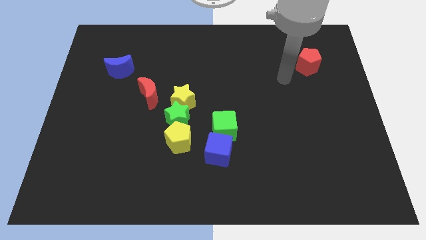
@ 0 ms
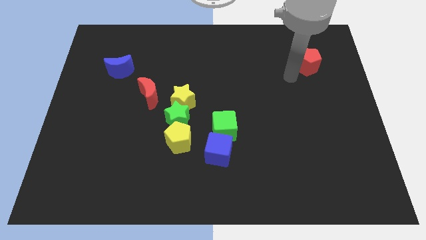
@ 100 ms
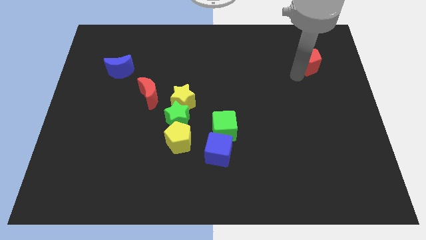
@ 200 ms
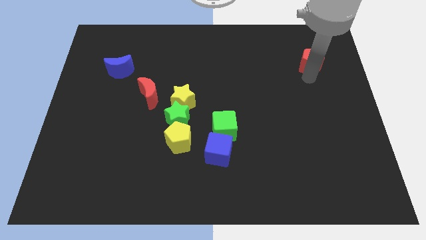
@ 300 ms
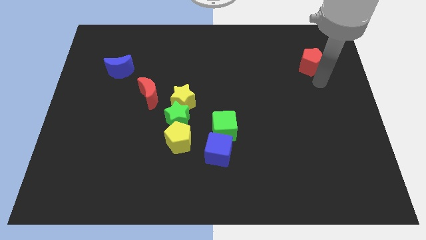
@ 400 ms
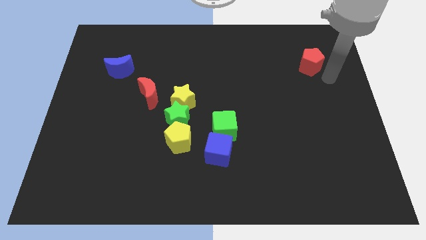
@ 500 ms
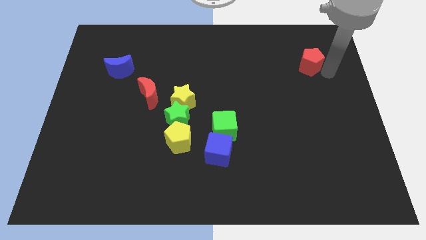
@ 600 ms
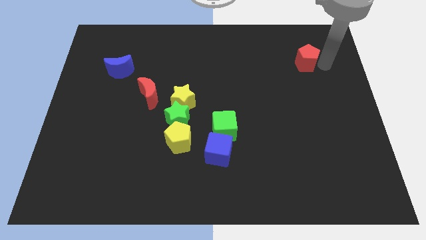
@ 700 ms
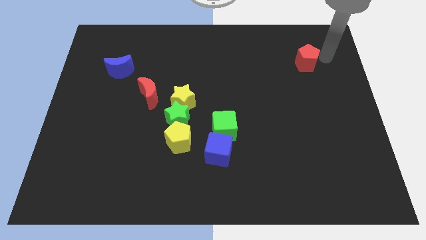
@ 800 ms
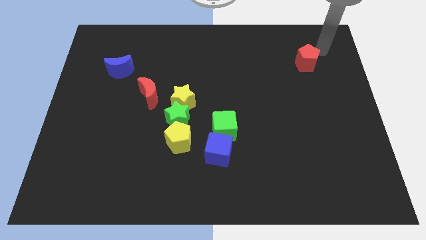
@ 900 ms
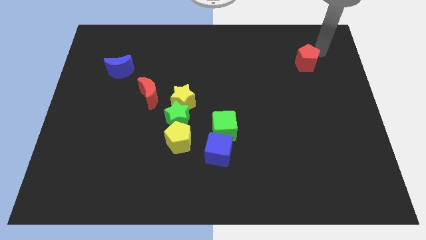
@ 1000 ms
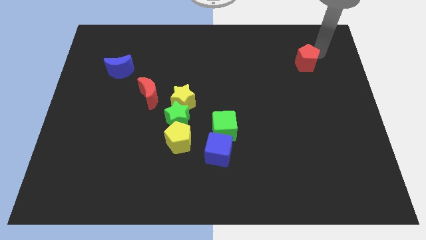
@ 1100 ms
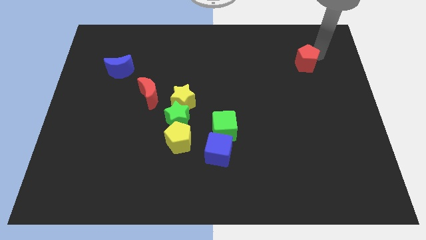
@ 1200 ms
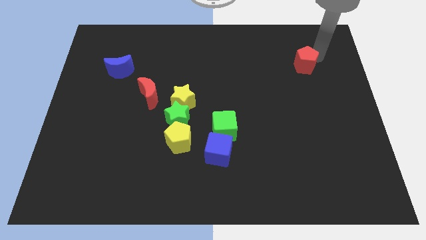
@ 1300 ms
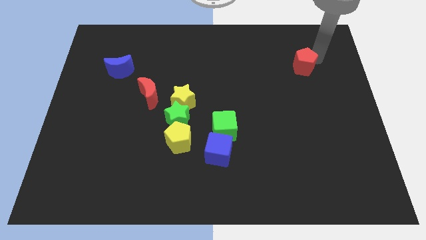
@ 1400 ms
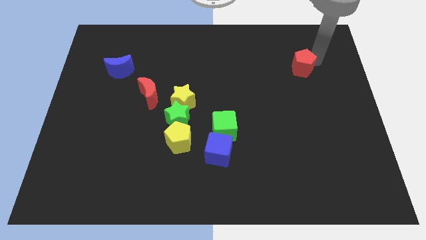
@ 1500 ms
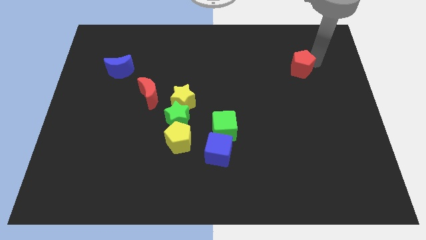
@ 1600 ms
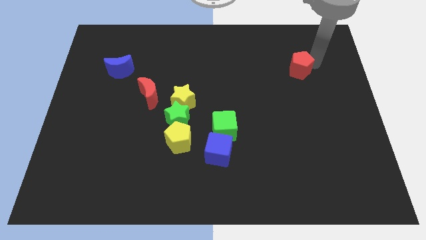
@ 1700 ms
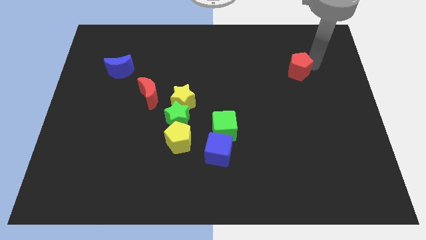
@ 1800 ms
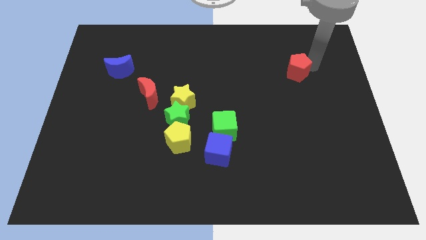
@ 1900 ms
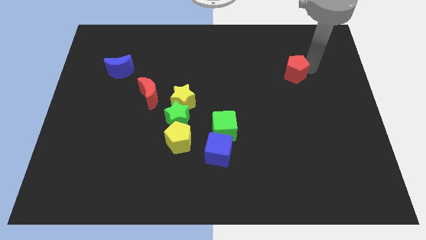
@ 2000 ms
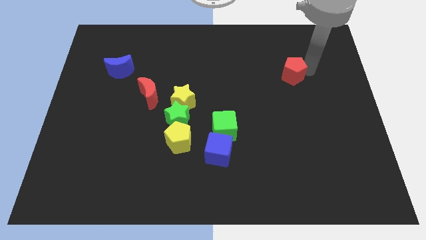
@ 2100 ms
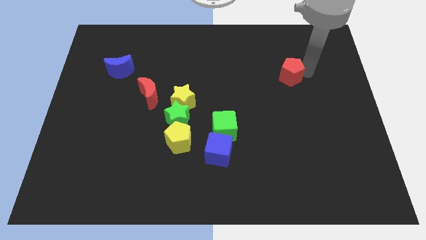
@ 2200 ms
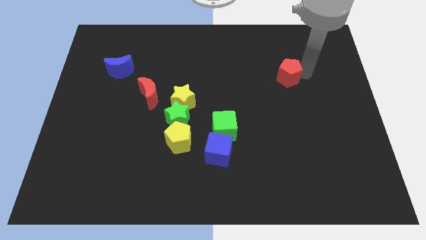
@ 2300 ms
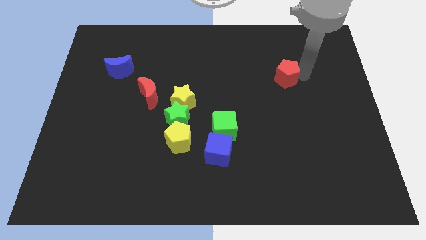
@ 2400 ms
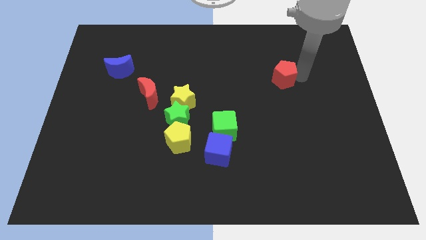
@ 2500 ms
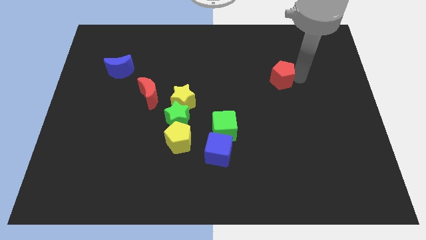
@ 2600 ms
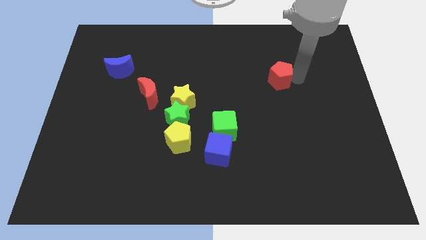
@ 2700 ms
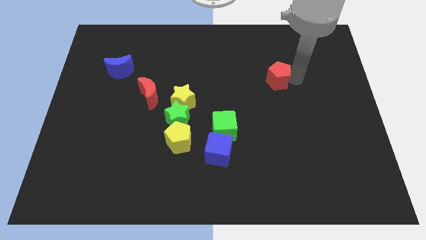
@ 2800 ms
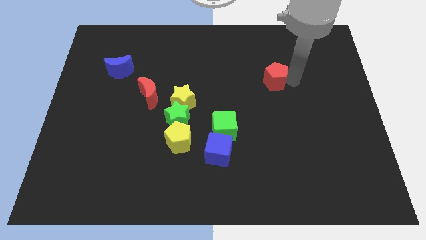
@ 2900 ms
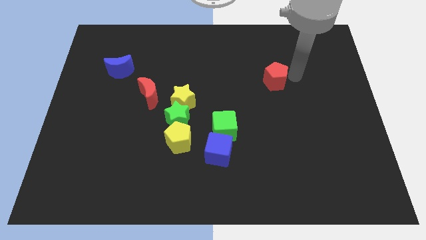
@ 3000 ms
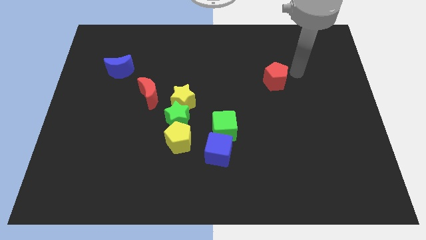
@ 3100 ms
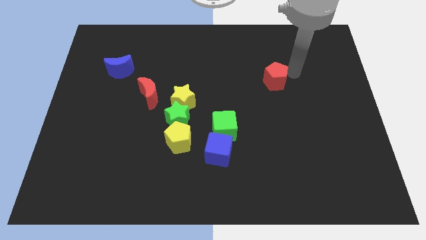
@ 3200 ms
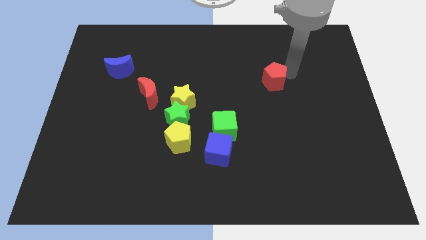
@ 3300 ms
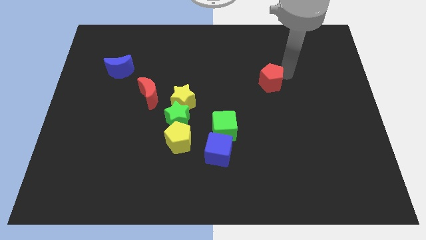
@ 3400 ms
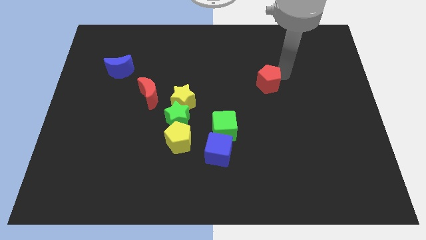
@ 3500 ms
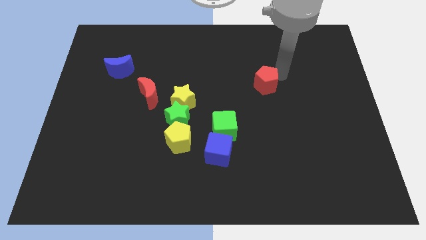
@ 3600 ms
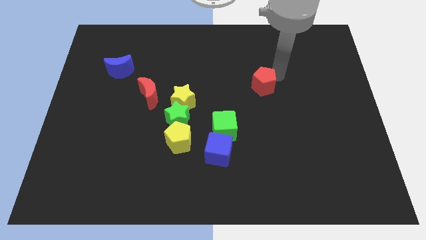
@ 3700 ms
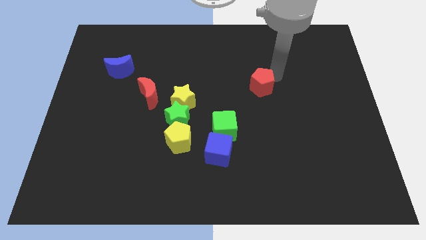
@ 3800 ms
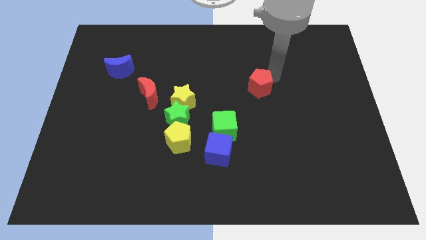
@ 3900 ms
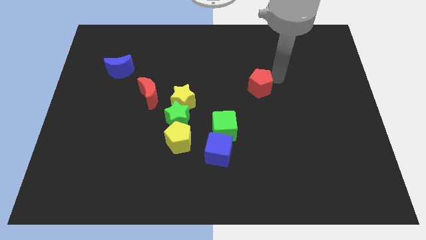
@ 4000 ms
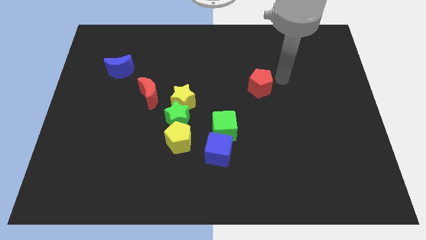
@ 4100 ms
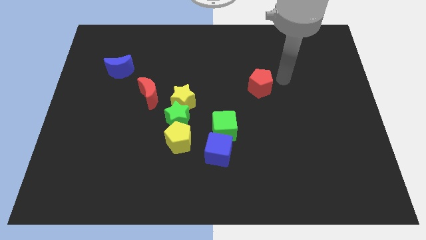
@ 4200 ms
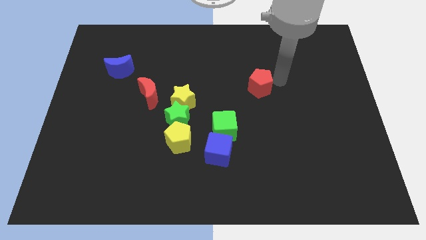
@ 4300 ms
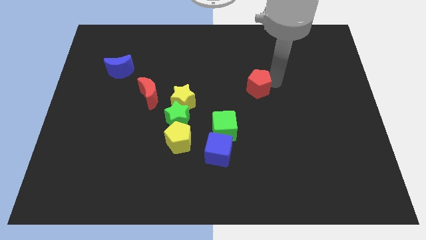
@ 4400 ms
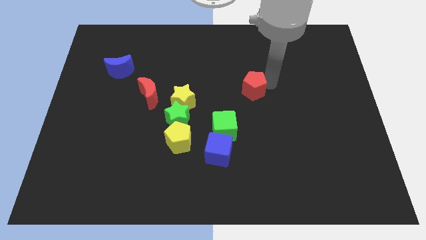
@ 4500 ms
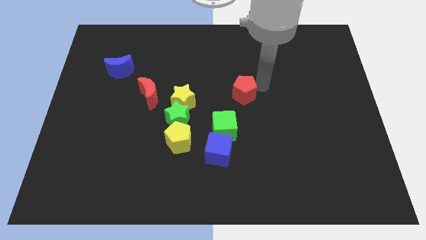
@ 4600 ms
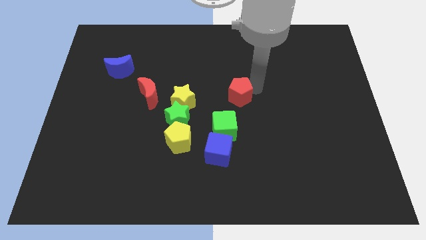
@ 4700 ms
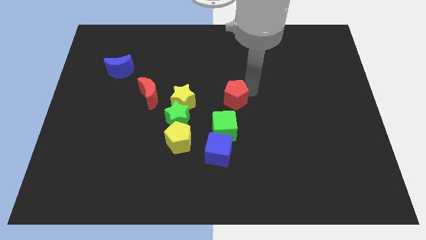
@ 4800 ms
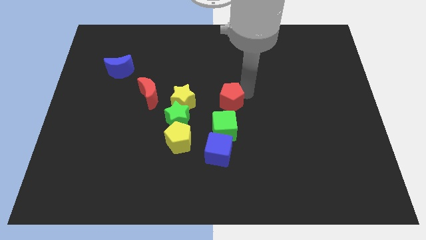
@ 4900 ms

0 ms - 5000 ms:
slide the red pentagon to the top side of the blue cube

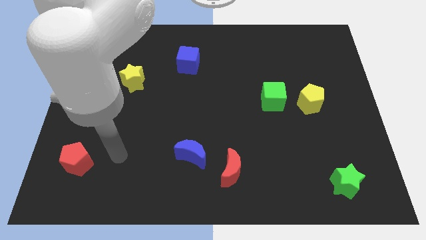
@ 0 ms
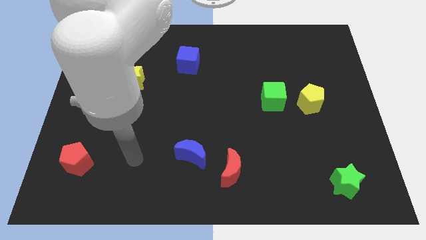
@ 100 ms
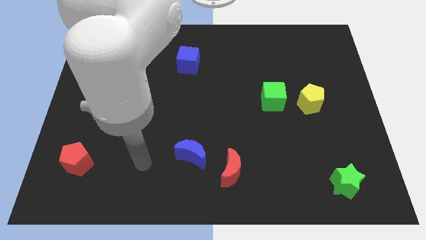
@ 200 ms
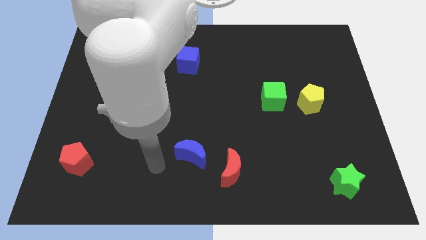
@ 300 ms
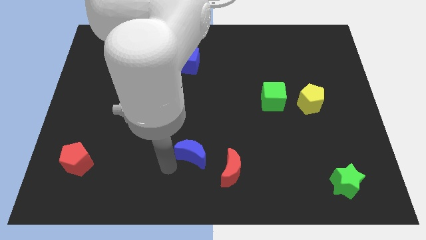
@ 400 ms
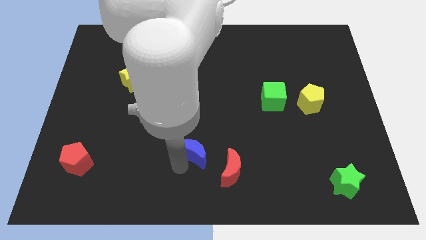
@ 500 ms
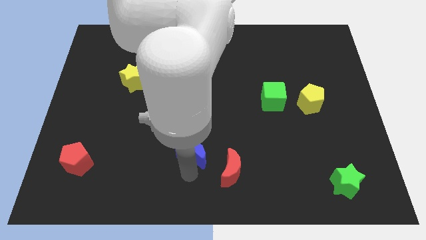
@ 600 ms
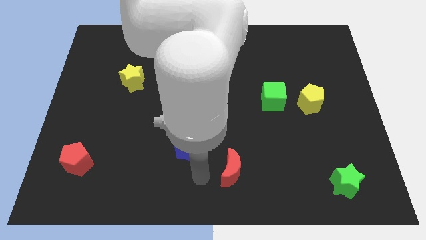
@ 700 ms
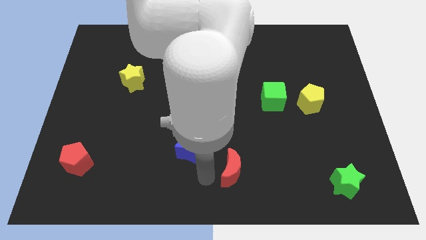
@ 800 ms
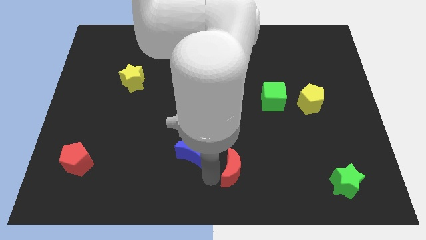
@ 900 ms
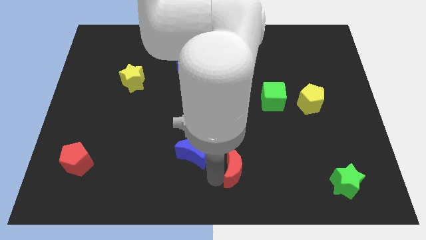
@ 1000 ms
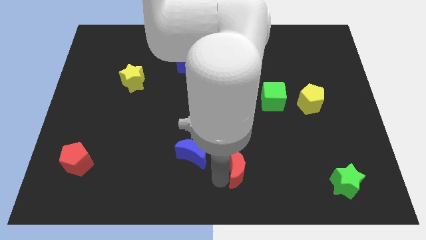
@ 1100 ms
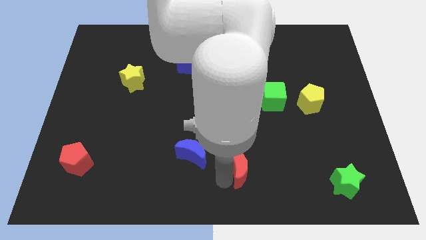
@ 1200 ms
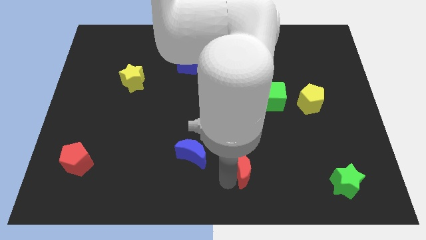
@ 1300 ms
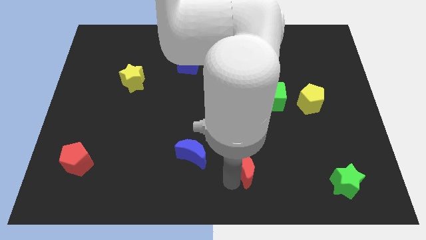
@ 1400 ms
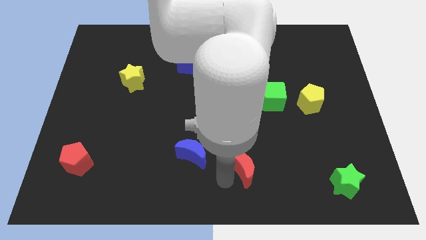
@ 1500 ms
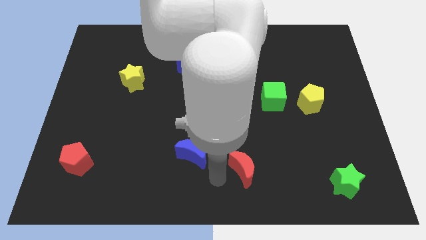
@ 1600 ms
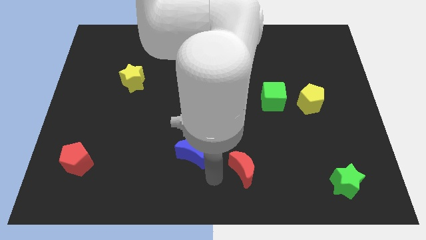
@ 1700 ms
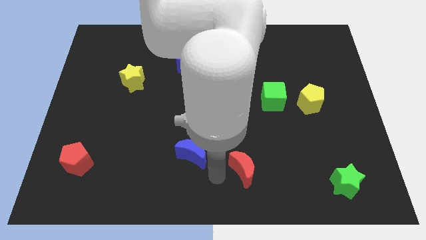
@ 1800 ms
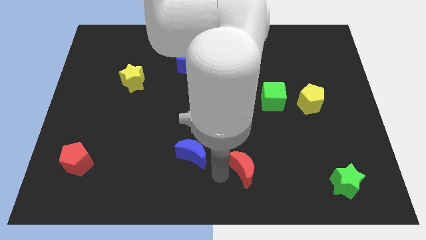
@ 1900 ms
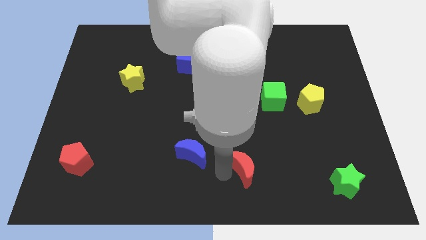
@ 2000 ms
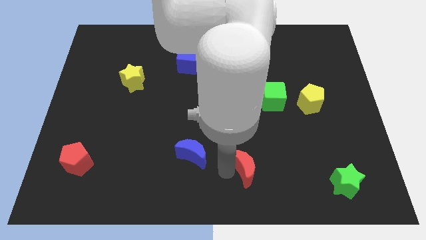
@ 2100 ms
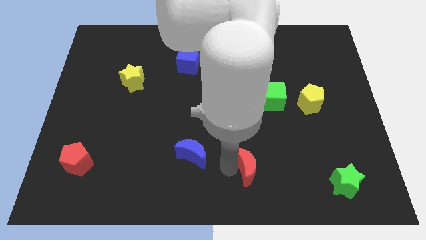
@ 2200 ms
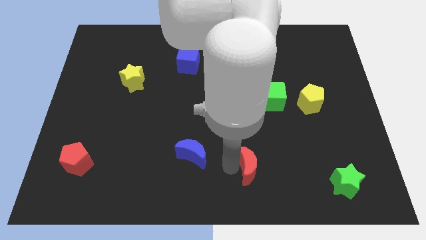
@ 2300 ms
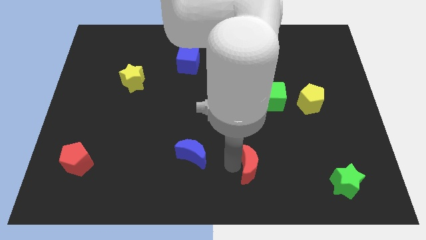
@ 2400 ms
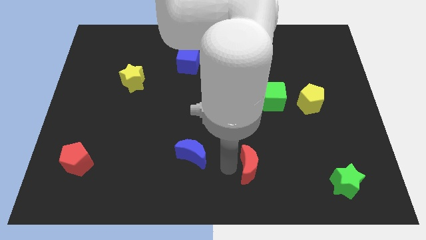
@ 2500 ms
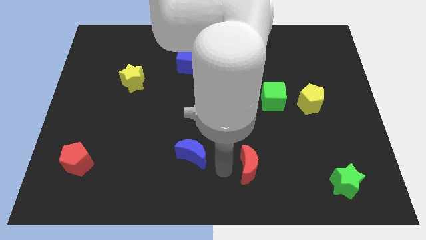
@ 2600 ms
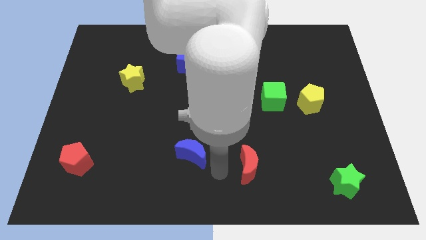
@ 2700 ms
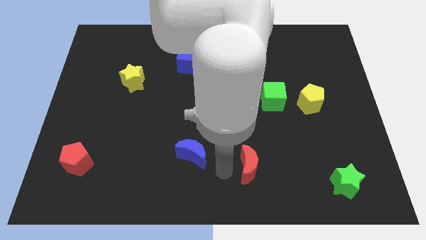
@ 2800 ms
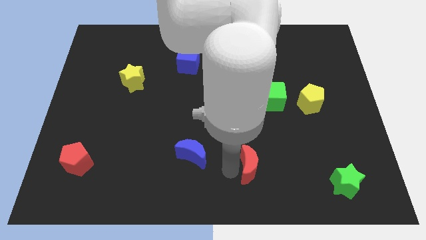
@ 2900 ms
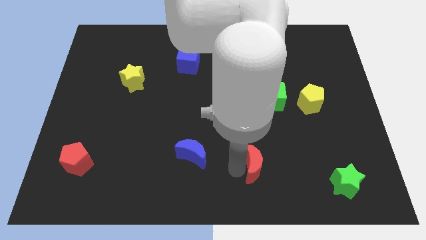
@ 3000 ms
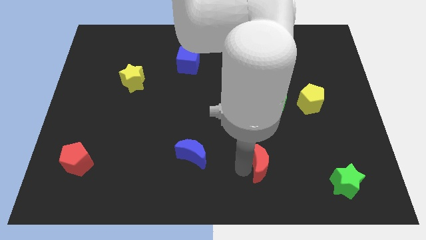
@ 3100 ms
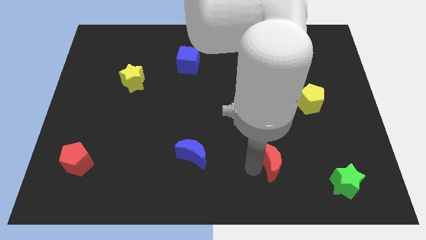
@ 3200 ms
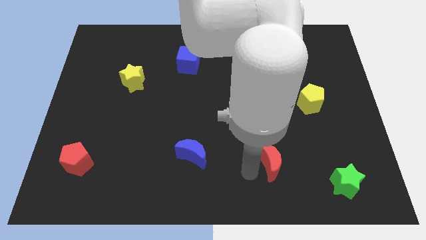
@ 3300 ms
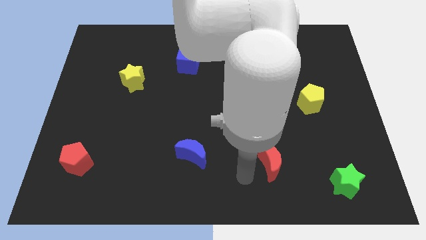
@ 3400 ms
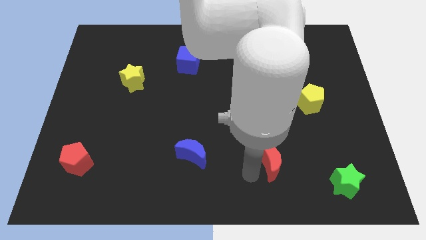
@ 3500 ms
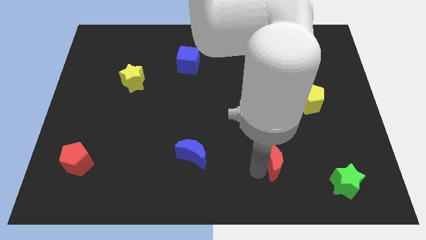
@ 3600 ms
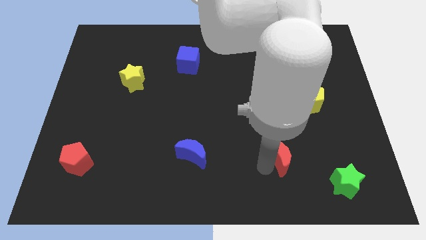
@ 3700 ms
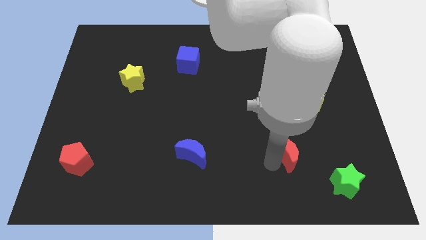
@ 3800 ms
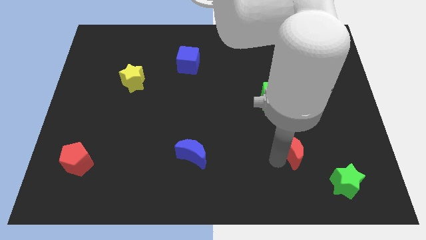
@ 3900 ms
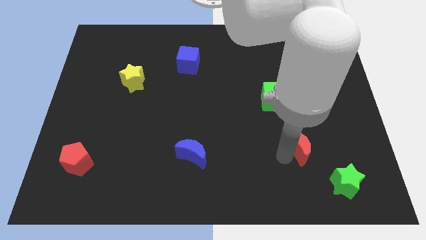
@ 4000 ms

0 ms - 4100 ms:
put the red moon below the yellow pentagon
